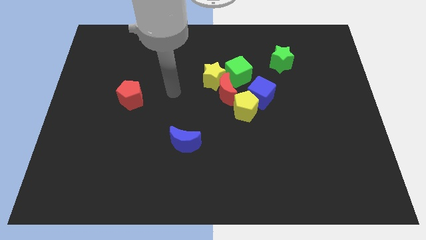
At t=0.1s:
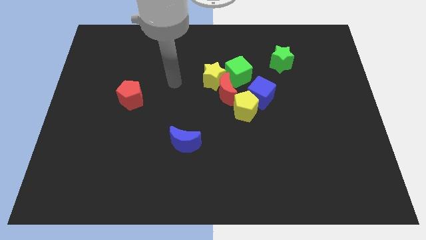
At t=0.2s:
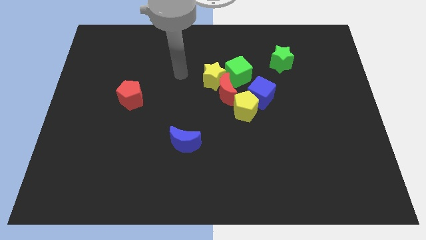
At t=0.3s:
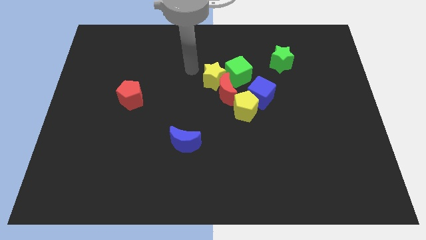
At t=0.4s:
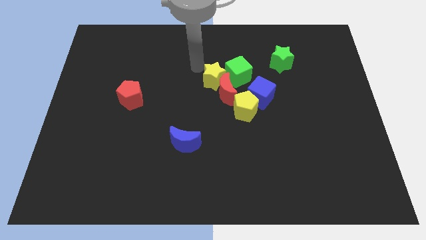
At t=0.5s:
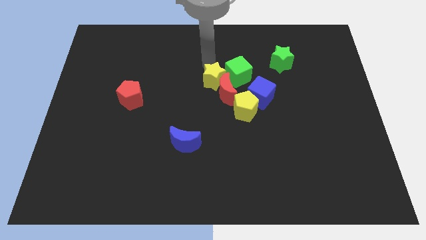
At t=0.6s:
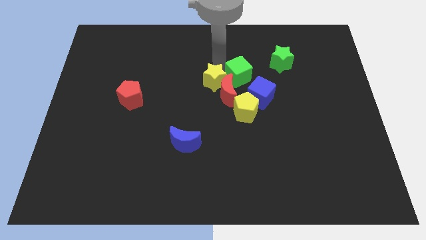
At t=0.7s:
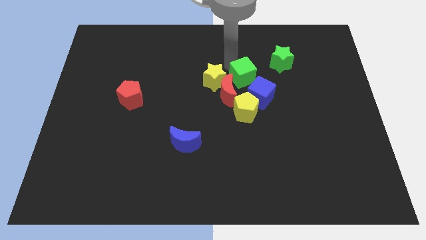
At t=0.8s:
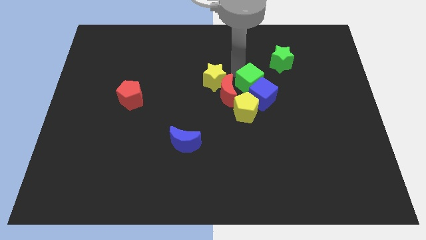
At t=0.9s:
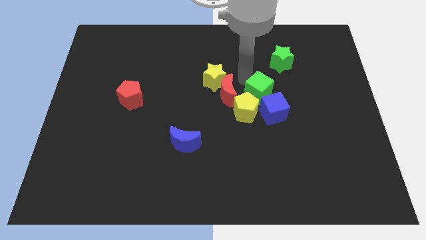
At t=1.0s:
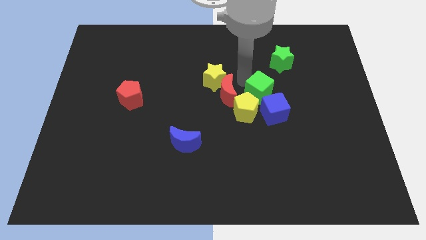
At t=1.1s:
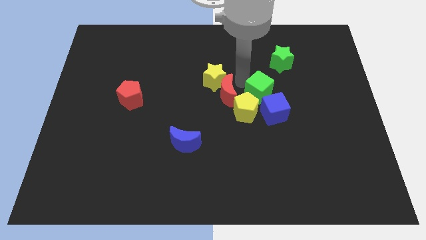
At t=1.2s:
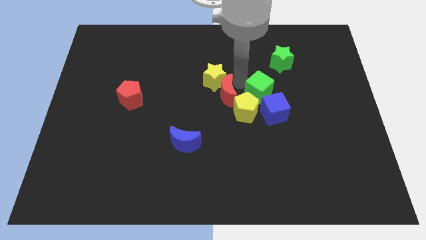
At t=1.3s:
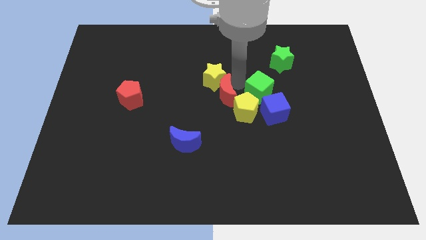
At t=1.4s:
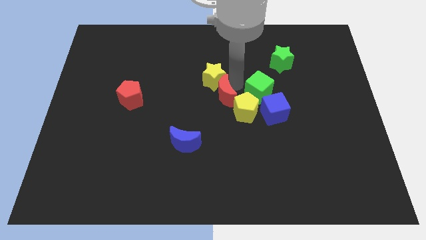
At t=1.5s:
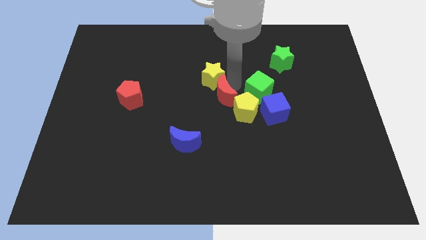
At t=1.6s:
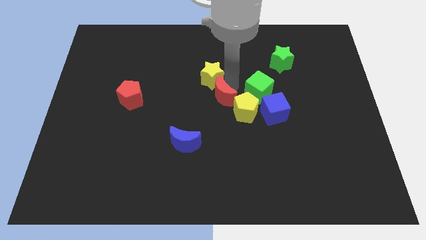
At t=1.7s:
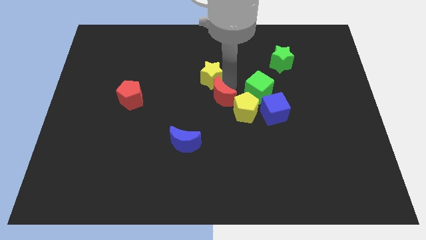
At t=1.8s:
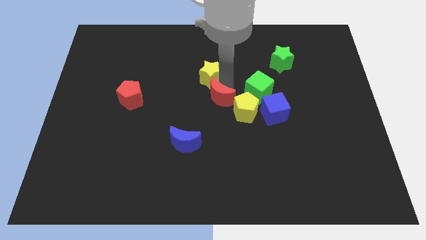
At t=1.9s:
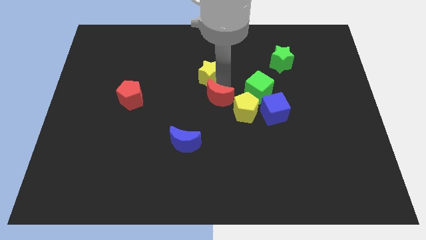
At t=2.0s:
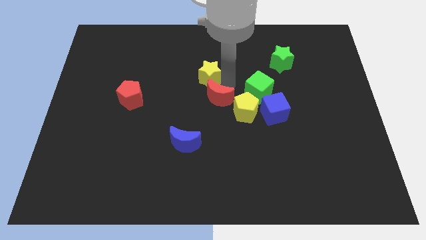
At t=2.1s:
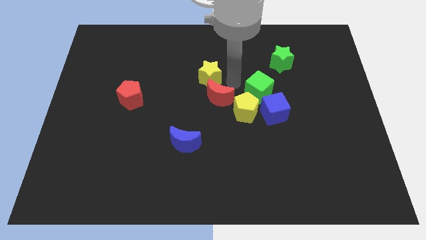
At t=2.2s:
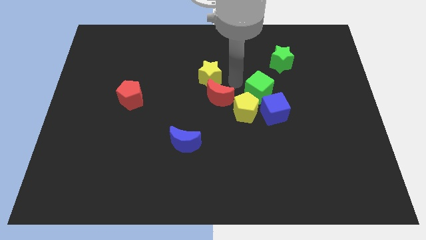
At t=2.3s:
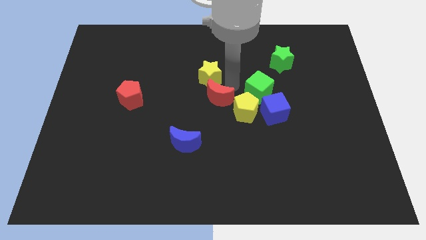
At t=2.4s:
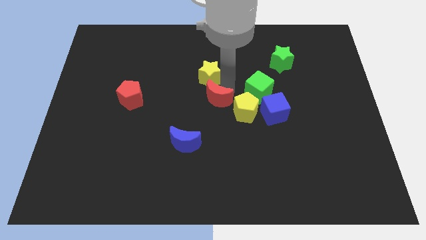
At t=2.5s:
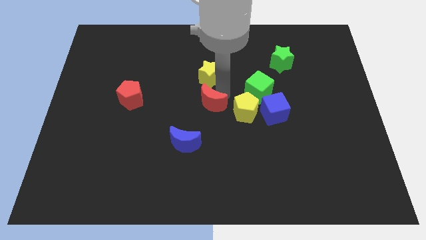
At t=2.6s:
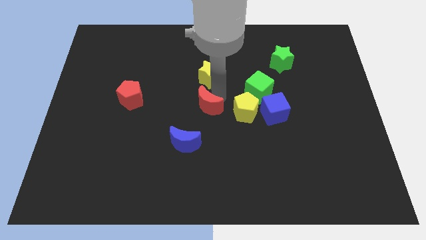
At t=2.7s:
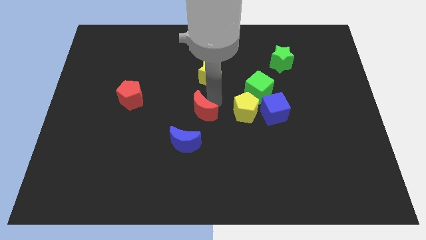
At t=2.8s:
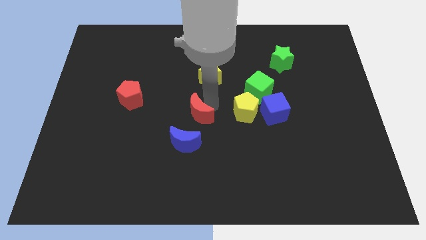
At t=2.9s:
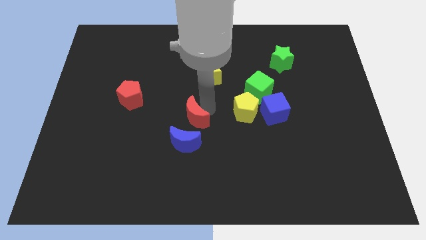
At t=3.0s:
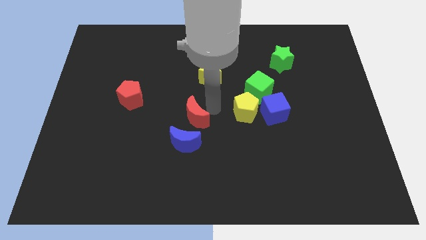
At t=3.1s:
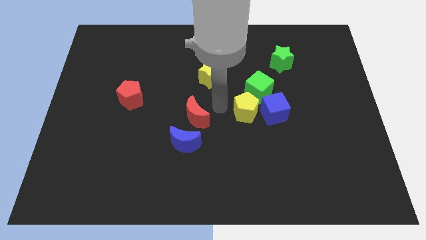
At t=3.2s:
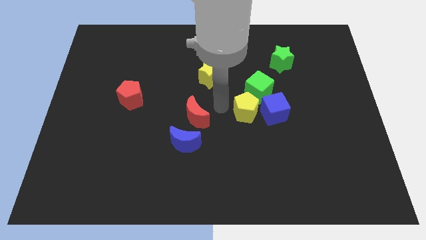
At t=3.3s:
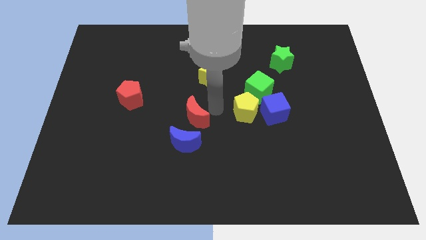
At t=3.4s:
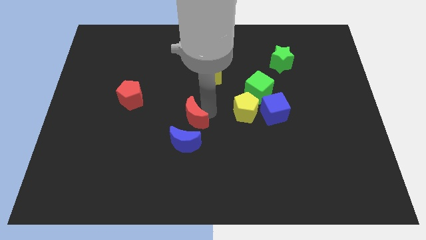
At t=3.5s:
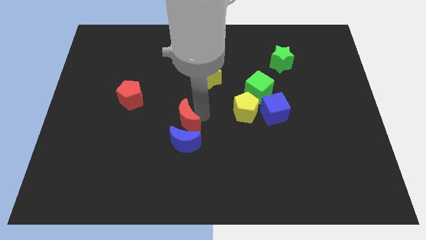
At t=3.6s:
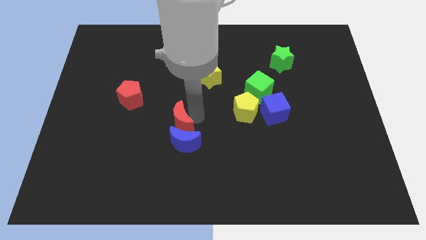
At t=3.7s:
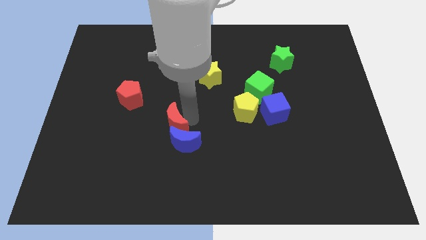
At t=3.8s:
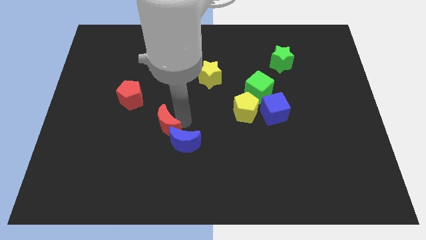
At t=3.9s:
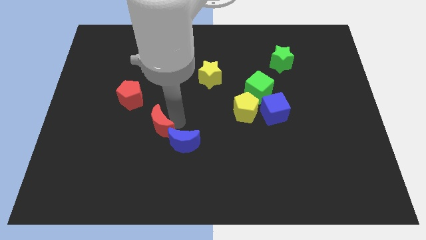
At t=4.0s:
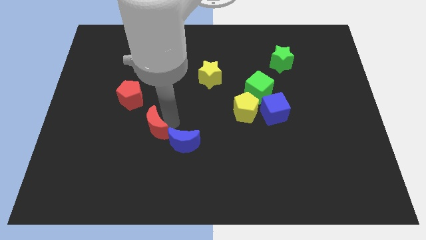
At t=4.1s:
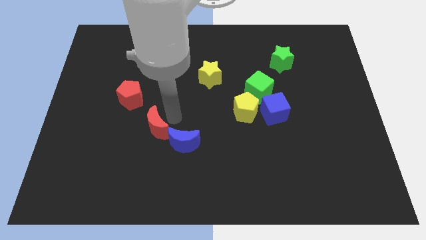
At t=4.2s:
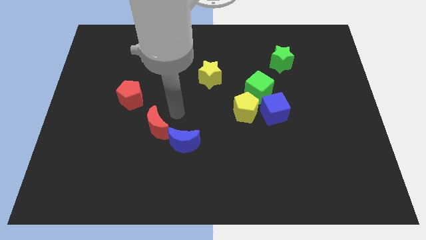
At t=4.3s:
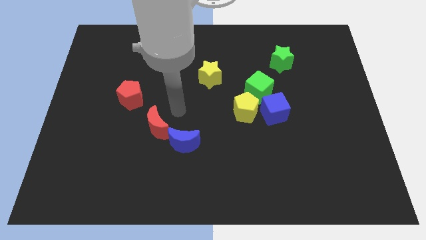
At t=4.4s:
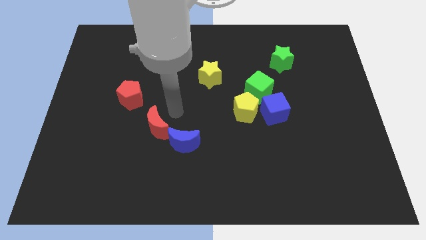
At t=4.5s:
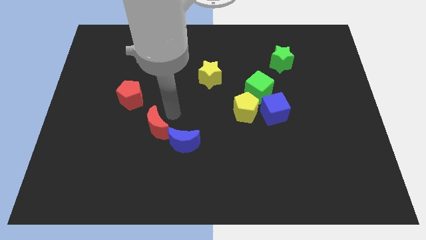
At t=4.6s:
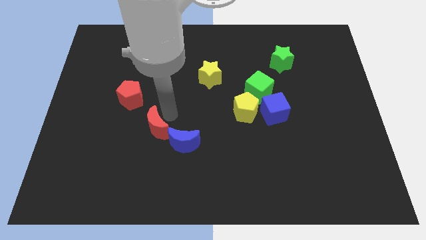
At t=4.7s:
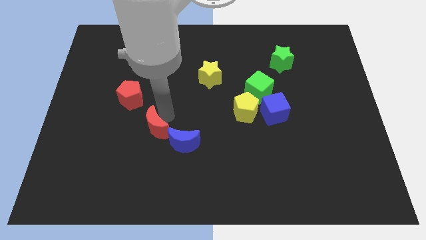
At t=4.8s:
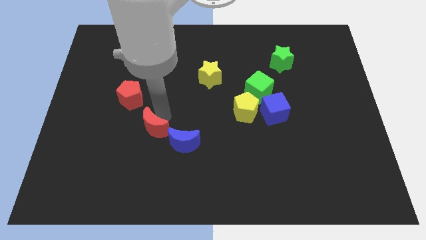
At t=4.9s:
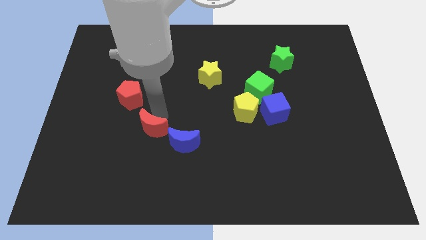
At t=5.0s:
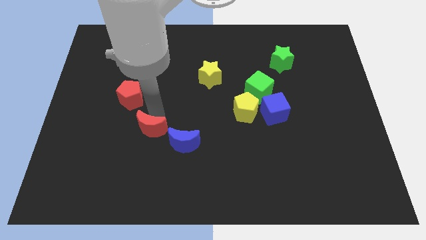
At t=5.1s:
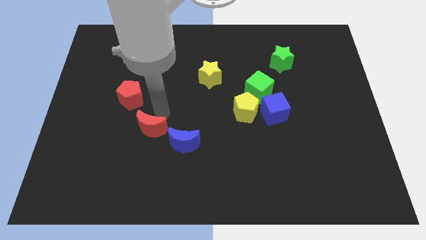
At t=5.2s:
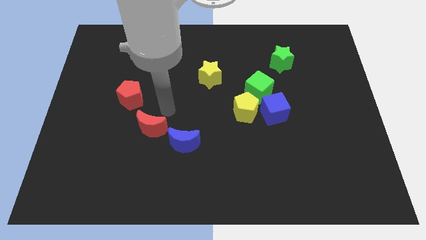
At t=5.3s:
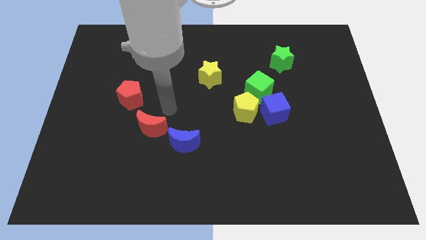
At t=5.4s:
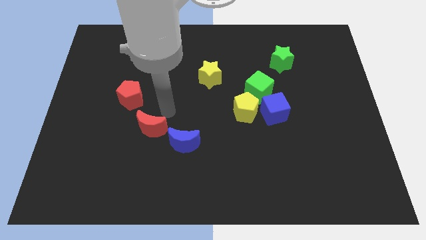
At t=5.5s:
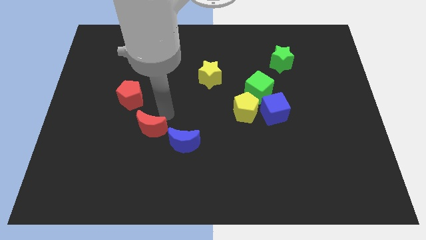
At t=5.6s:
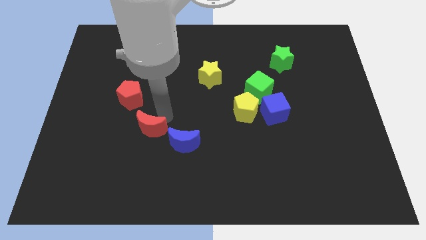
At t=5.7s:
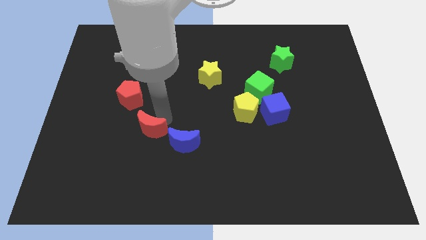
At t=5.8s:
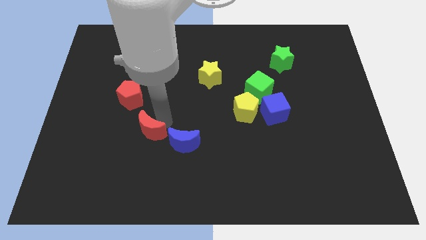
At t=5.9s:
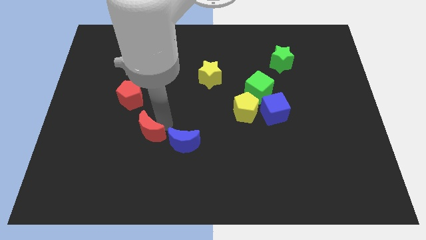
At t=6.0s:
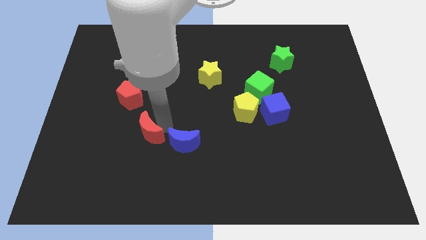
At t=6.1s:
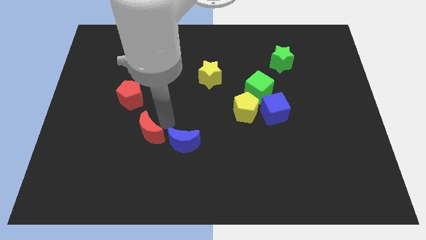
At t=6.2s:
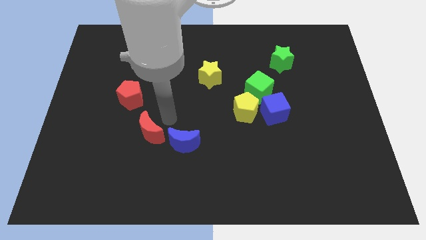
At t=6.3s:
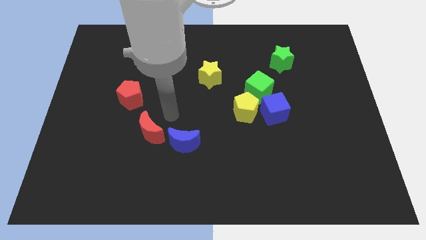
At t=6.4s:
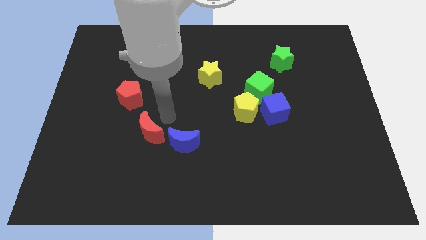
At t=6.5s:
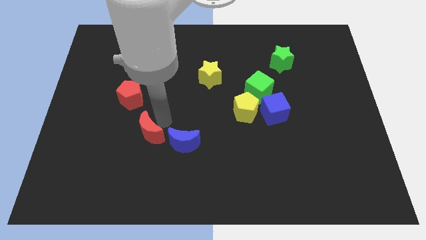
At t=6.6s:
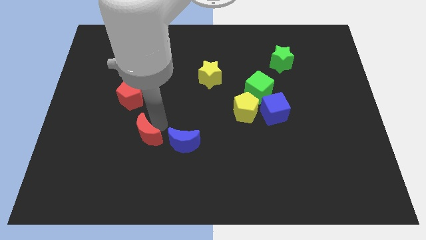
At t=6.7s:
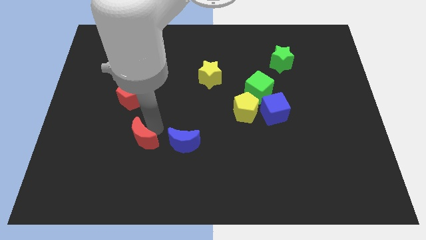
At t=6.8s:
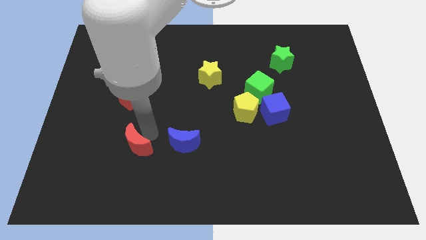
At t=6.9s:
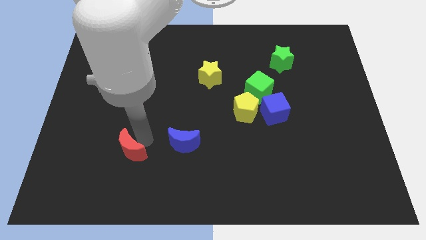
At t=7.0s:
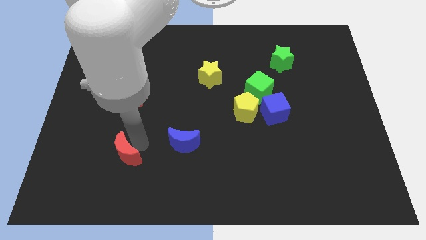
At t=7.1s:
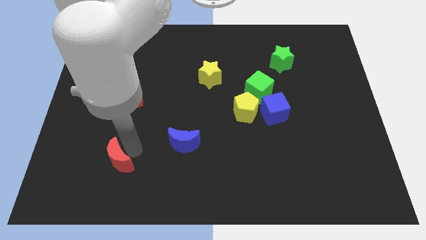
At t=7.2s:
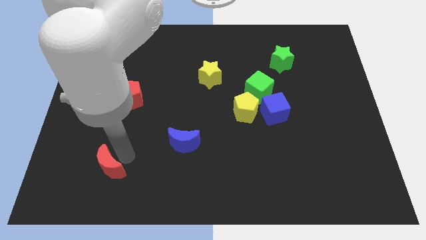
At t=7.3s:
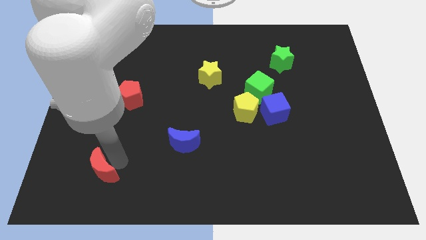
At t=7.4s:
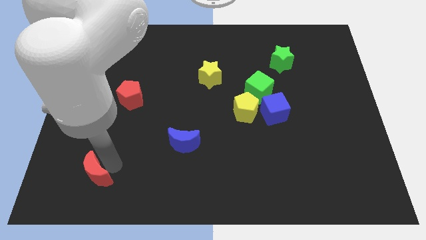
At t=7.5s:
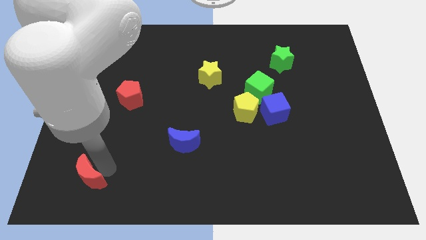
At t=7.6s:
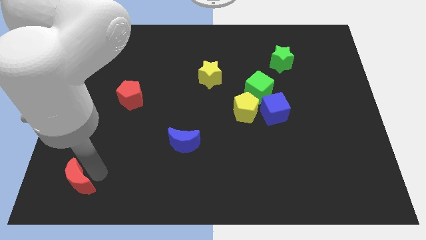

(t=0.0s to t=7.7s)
slide the red moon to the bottom left of the board
